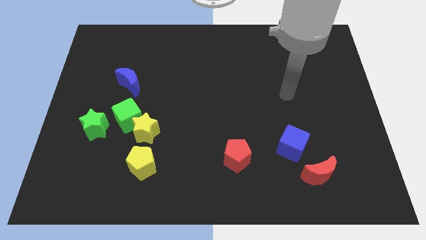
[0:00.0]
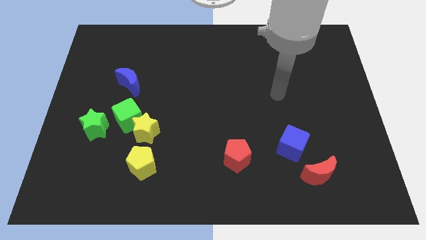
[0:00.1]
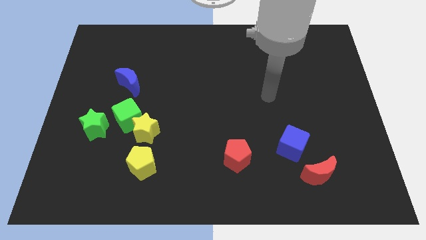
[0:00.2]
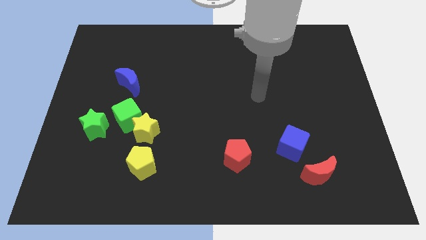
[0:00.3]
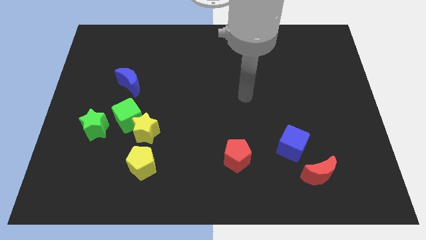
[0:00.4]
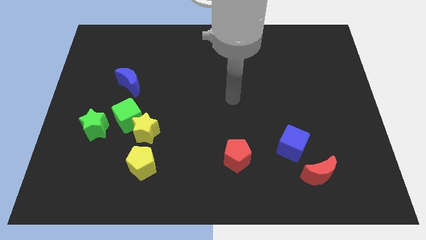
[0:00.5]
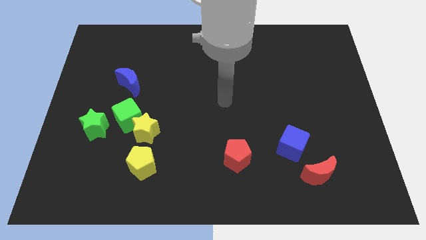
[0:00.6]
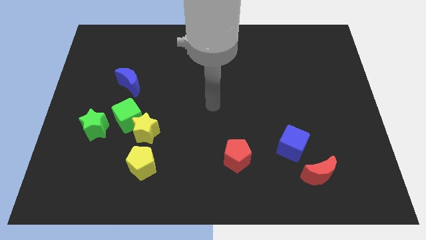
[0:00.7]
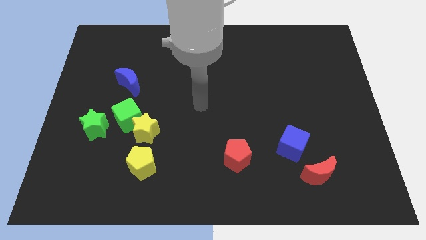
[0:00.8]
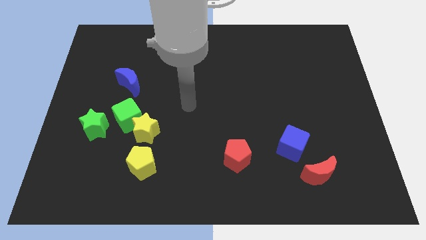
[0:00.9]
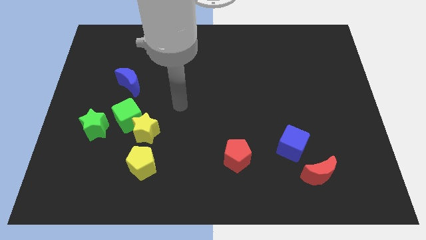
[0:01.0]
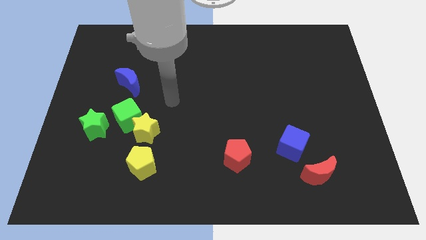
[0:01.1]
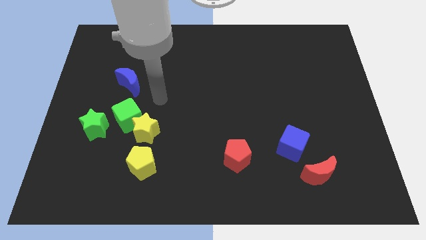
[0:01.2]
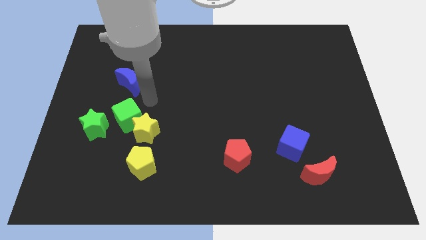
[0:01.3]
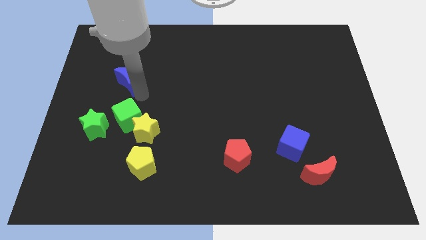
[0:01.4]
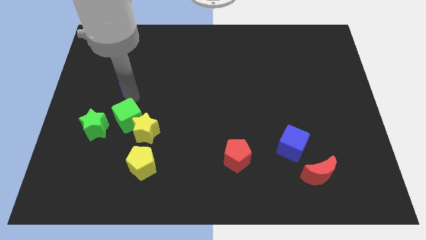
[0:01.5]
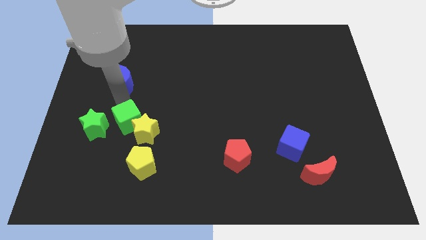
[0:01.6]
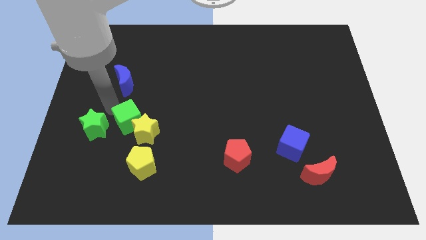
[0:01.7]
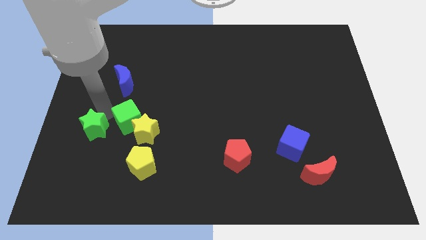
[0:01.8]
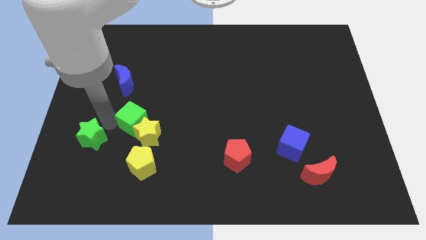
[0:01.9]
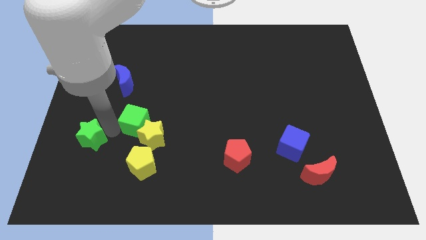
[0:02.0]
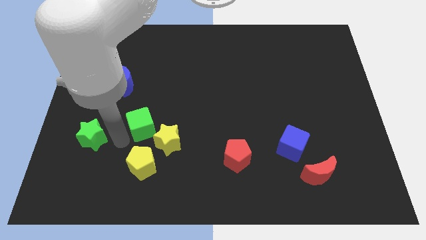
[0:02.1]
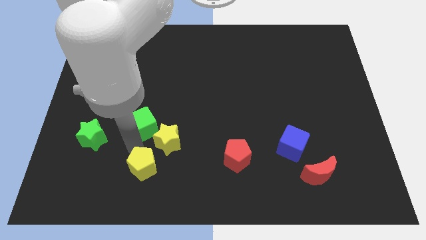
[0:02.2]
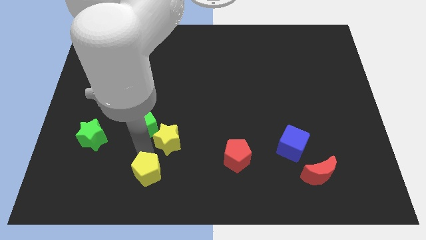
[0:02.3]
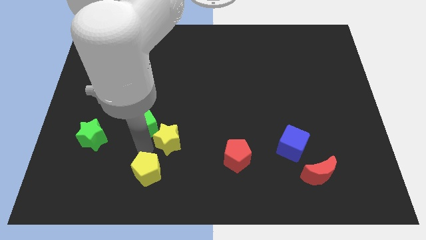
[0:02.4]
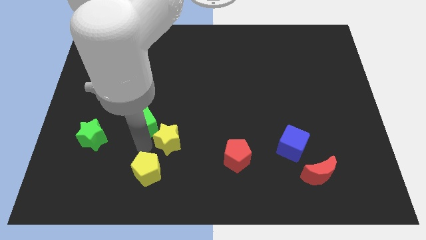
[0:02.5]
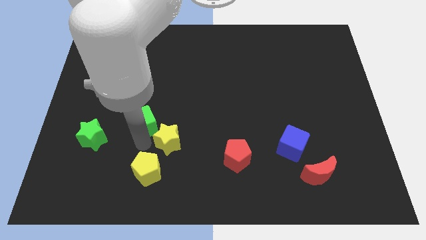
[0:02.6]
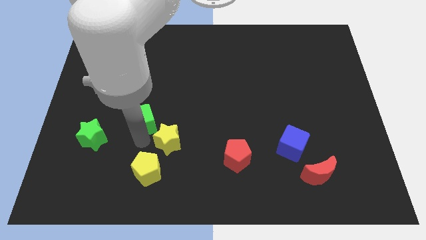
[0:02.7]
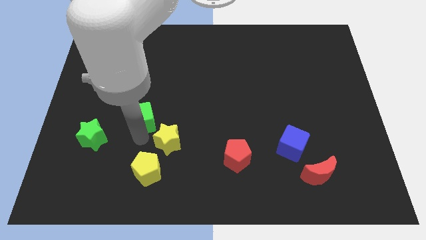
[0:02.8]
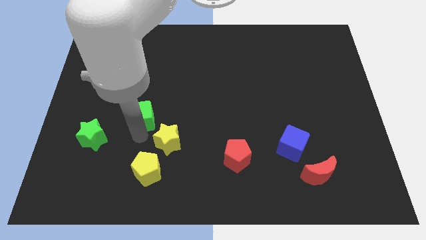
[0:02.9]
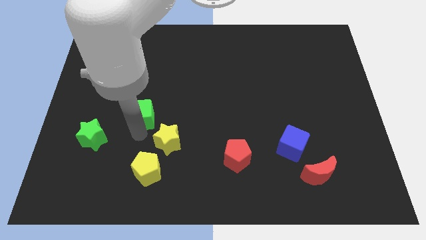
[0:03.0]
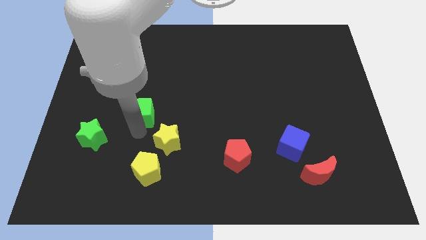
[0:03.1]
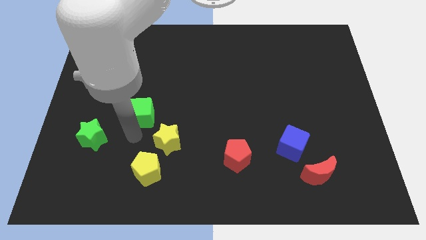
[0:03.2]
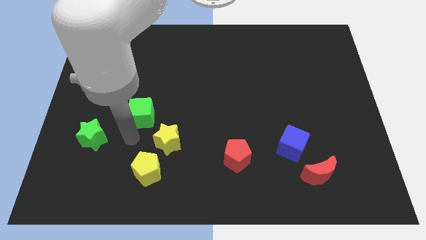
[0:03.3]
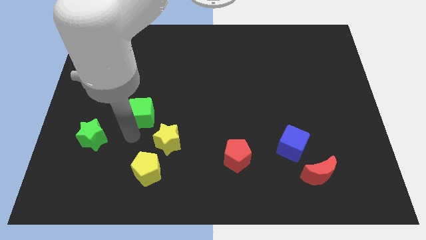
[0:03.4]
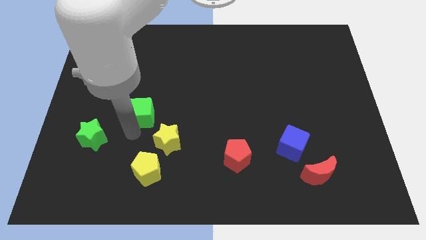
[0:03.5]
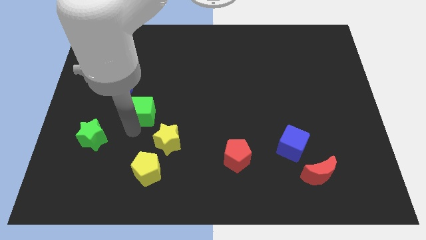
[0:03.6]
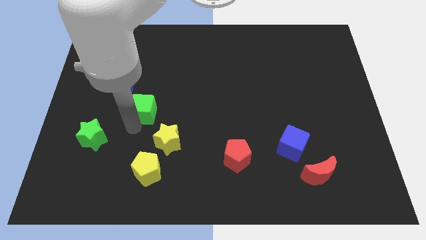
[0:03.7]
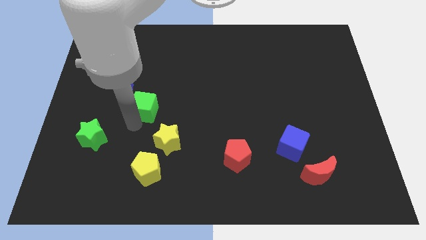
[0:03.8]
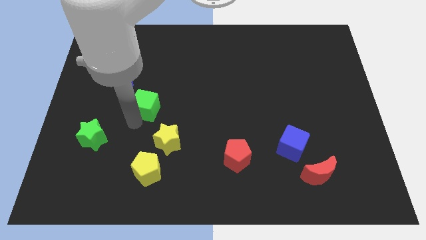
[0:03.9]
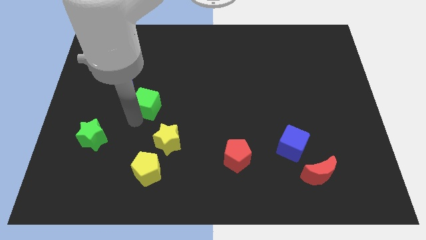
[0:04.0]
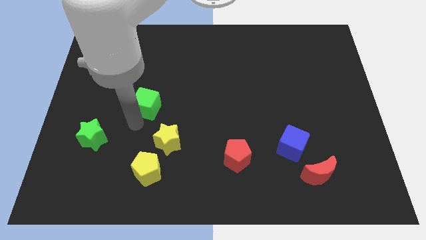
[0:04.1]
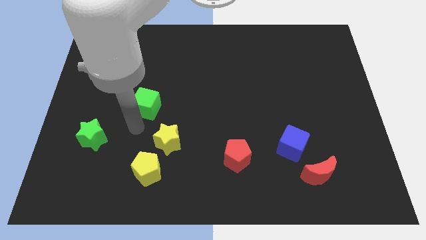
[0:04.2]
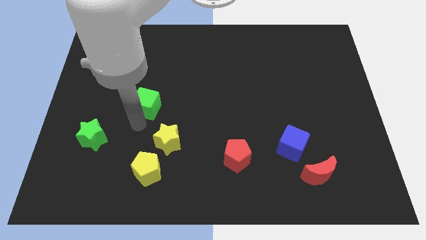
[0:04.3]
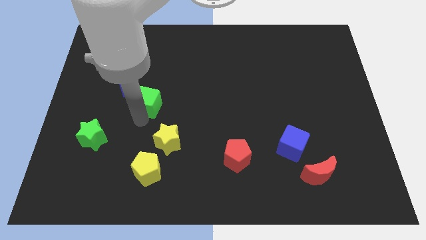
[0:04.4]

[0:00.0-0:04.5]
separate the green cube from the yellow star and green star

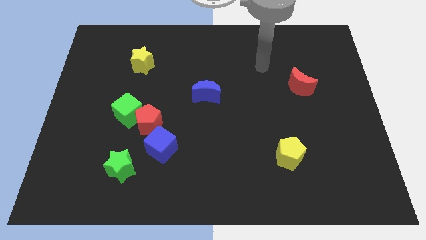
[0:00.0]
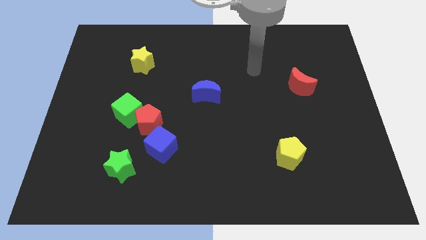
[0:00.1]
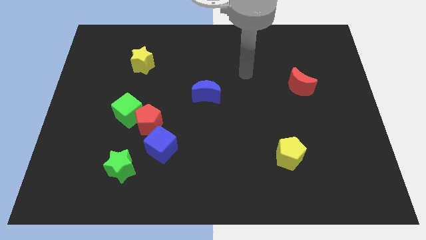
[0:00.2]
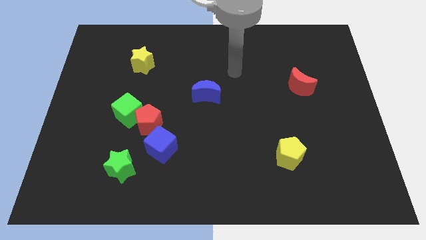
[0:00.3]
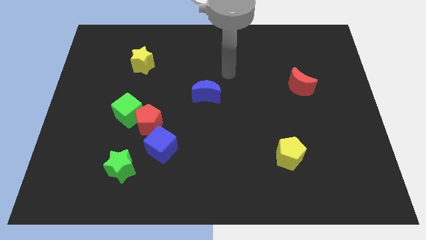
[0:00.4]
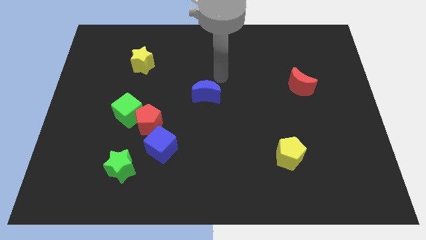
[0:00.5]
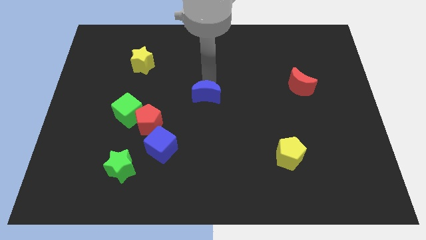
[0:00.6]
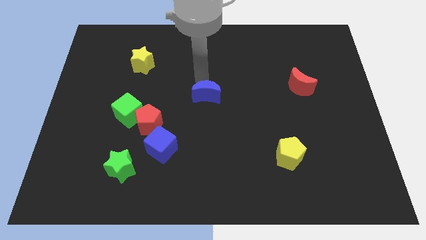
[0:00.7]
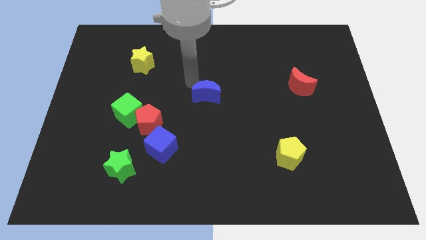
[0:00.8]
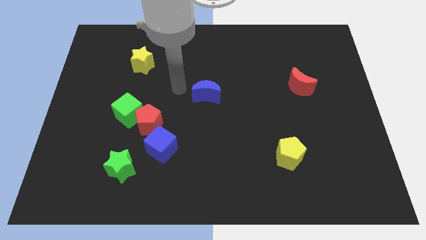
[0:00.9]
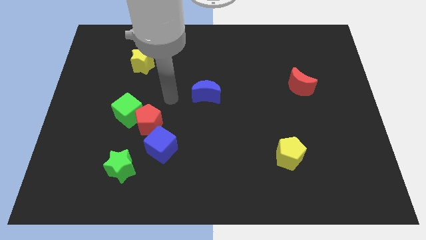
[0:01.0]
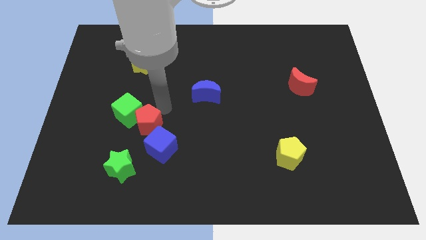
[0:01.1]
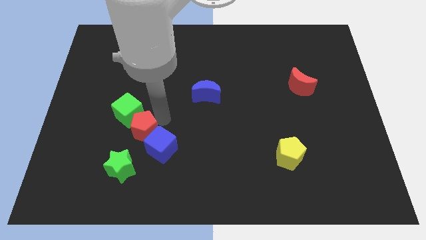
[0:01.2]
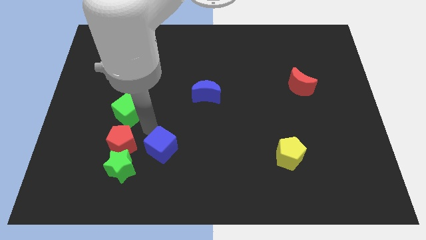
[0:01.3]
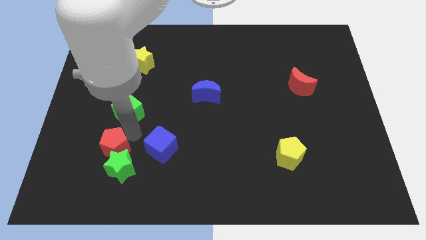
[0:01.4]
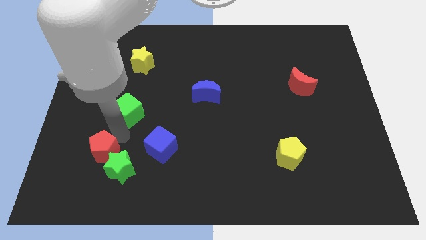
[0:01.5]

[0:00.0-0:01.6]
pull the green cube apart from the red pentagon

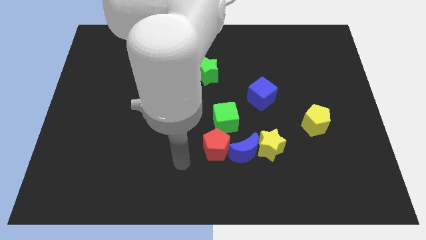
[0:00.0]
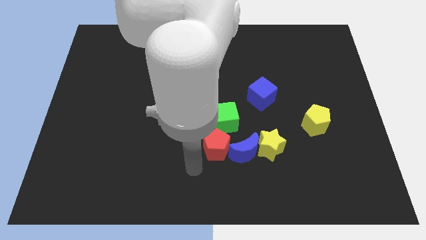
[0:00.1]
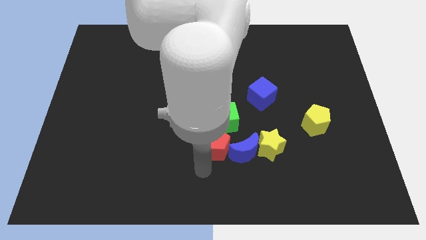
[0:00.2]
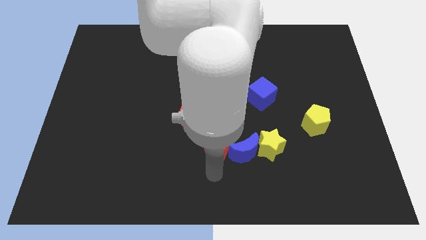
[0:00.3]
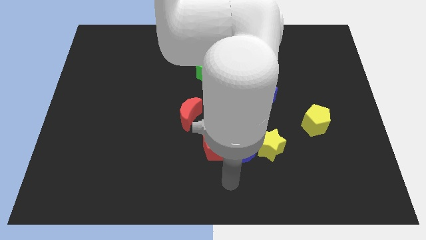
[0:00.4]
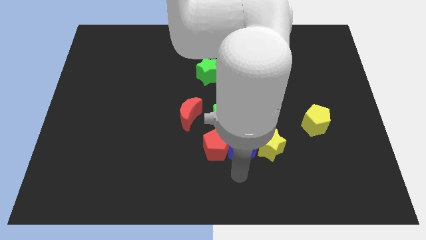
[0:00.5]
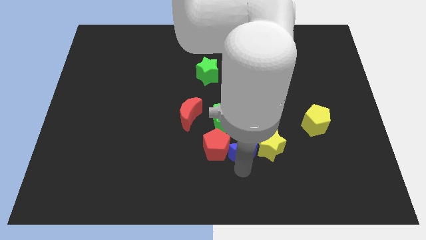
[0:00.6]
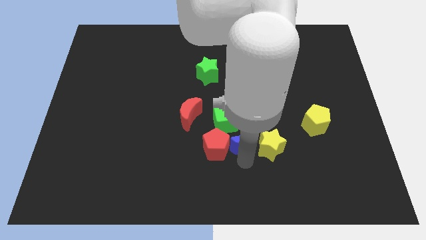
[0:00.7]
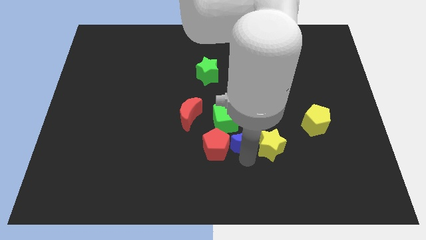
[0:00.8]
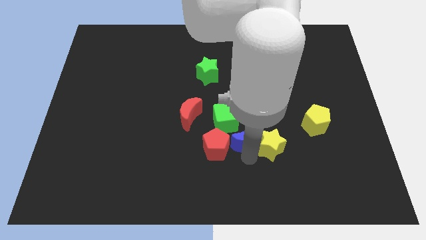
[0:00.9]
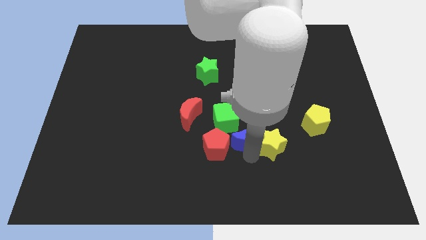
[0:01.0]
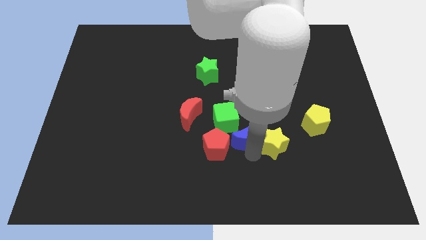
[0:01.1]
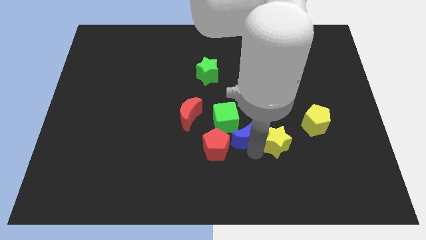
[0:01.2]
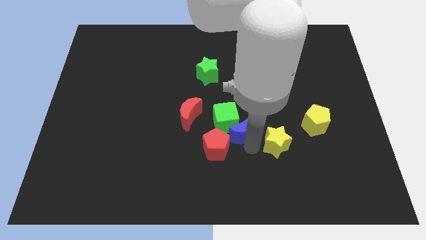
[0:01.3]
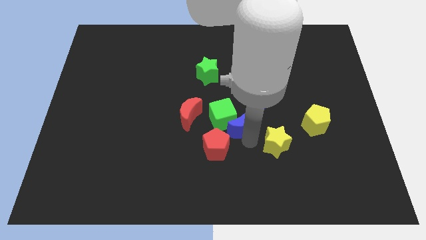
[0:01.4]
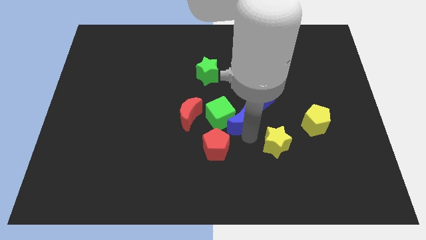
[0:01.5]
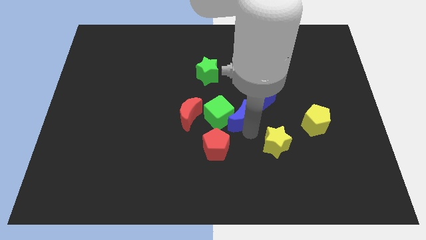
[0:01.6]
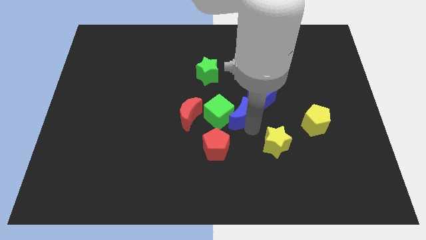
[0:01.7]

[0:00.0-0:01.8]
separate the yellow star from the blue moon

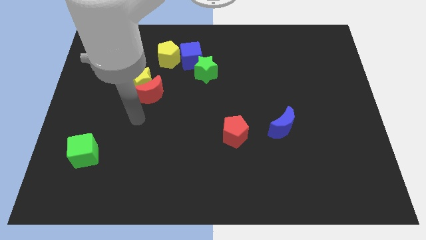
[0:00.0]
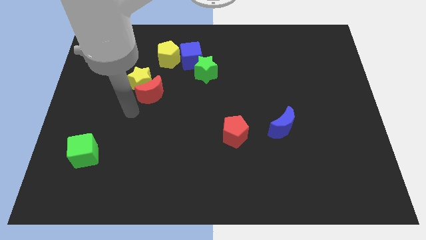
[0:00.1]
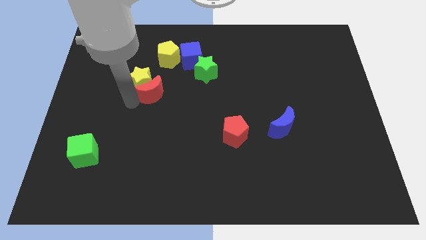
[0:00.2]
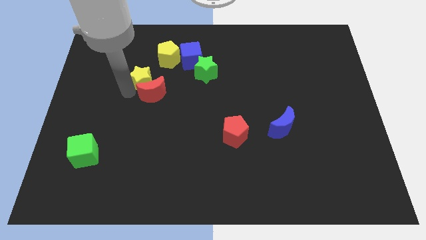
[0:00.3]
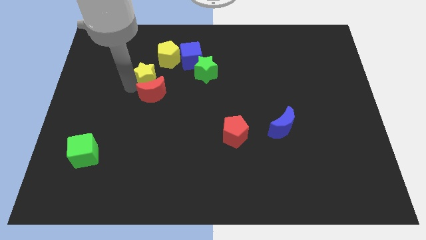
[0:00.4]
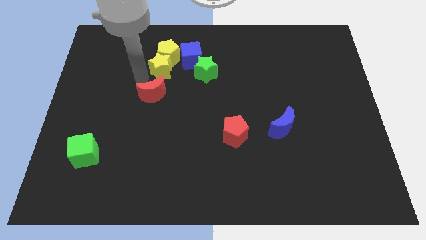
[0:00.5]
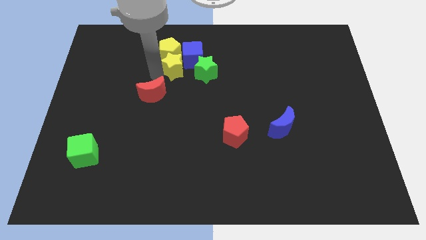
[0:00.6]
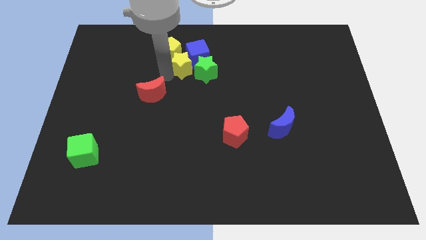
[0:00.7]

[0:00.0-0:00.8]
move the red moon away from the yellow star

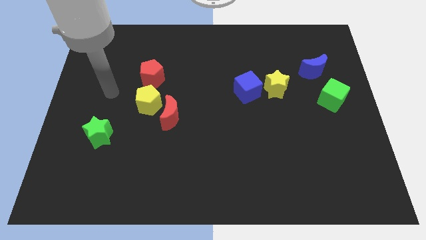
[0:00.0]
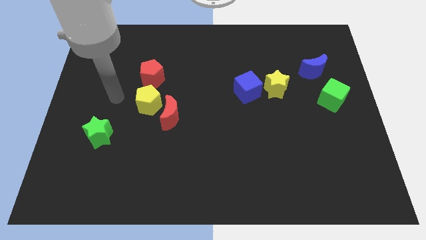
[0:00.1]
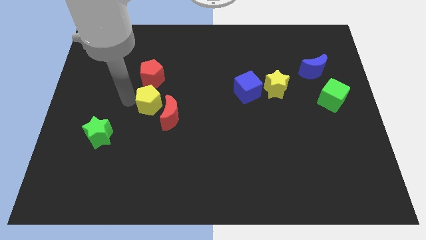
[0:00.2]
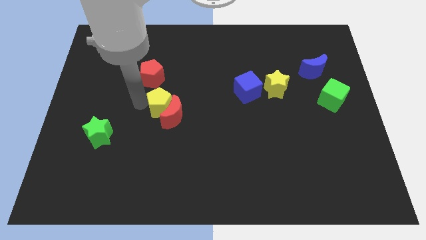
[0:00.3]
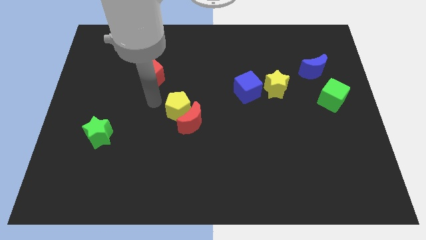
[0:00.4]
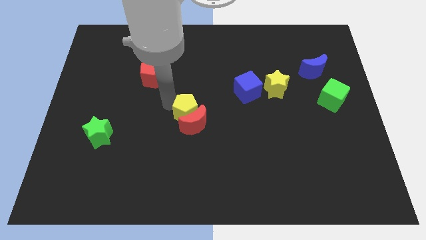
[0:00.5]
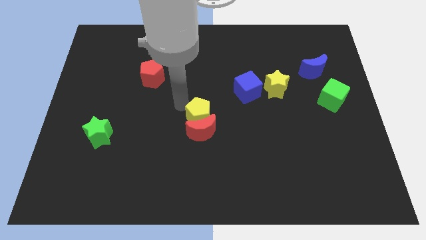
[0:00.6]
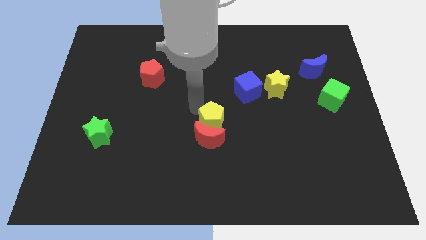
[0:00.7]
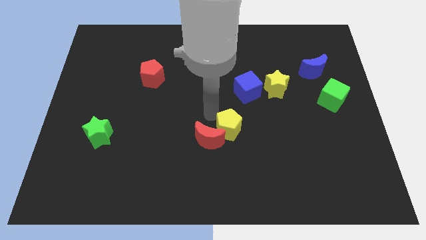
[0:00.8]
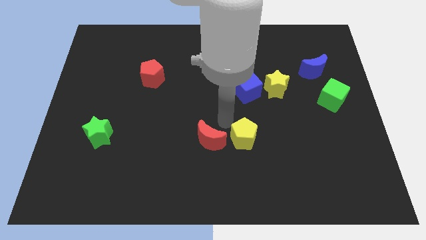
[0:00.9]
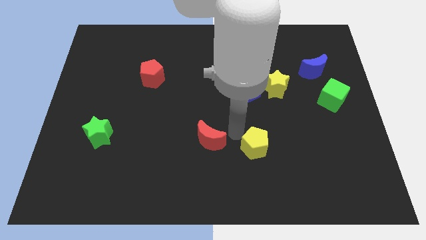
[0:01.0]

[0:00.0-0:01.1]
separate the red moon from the yellow pentagon
